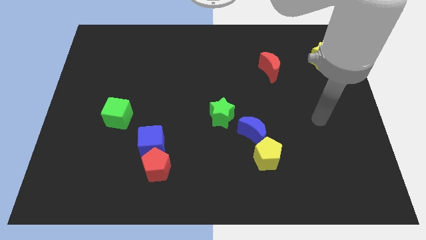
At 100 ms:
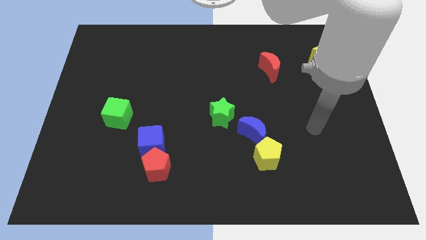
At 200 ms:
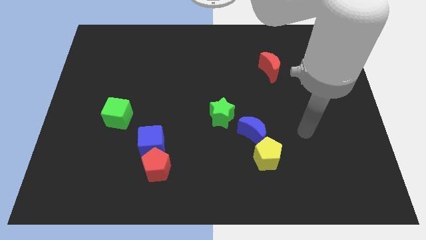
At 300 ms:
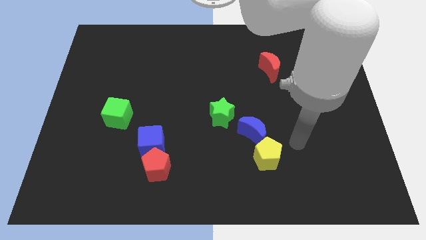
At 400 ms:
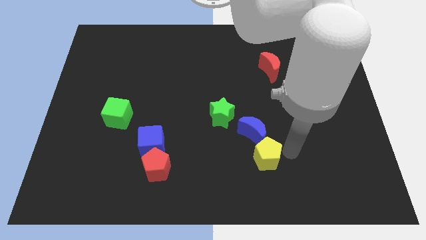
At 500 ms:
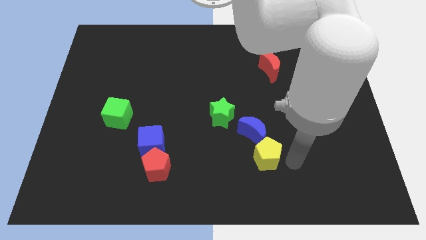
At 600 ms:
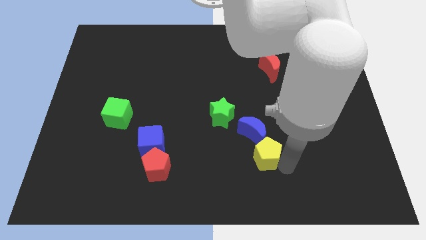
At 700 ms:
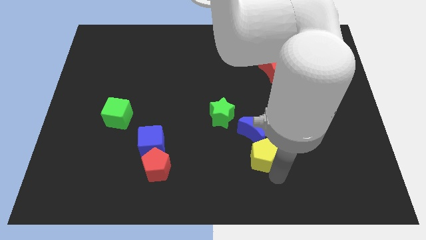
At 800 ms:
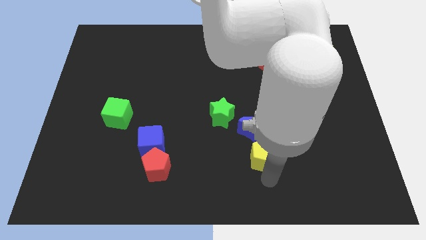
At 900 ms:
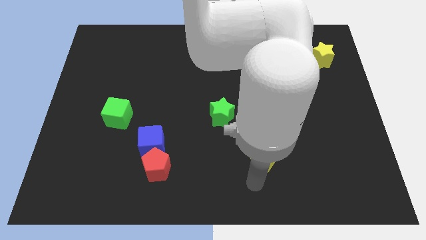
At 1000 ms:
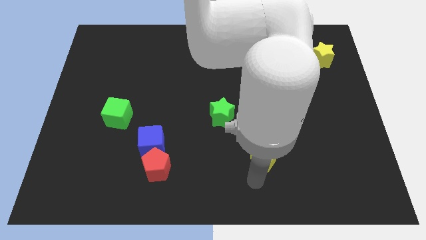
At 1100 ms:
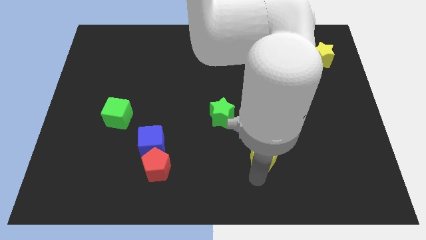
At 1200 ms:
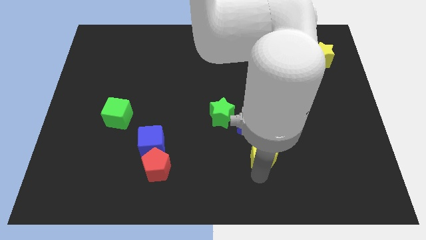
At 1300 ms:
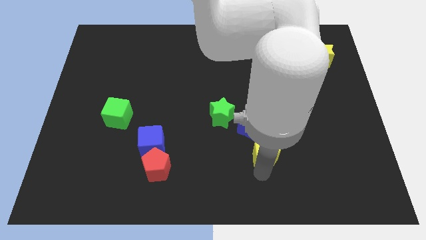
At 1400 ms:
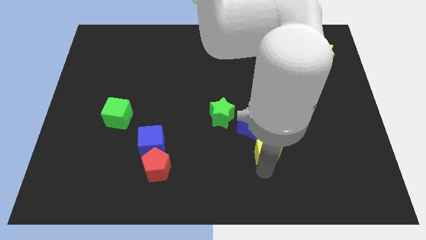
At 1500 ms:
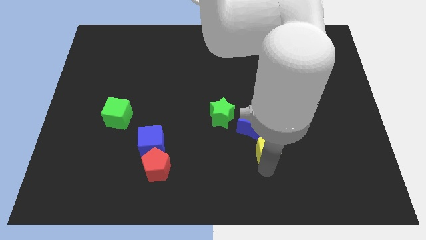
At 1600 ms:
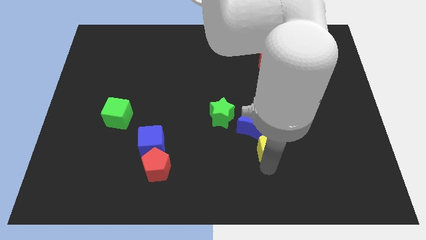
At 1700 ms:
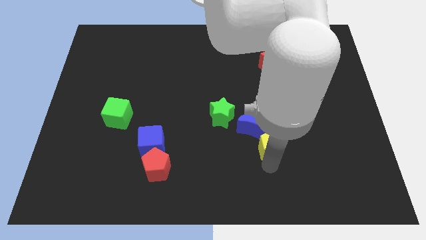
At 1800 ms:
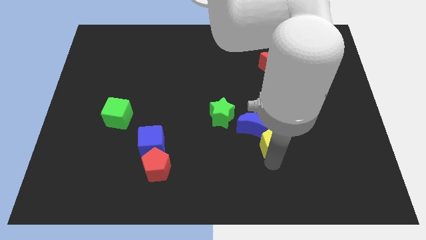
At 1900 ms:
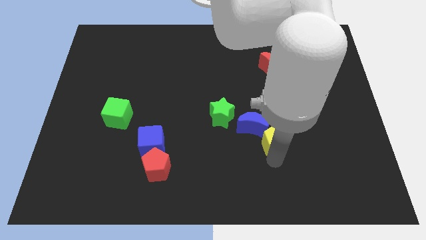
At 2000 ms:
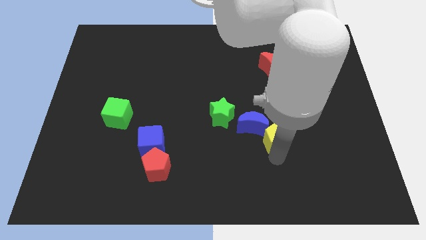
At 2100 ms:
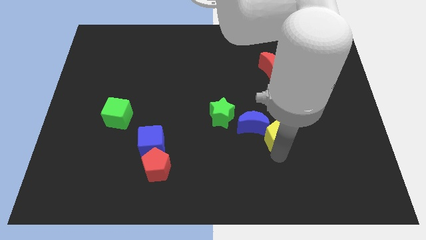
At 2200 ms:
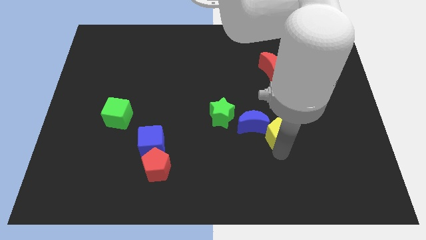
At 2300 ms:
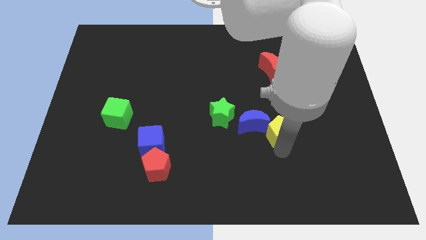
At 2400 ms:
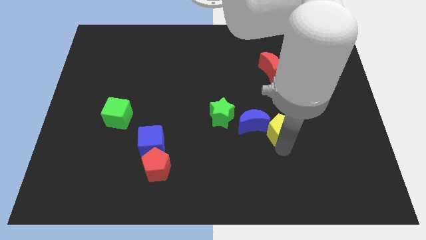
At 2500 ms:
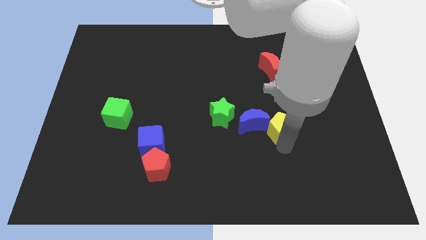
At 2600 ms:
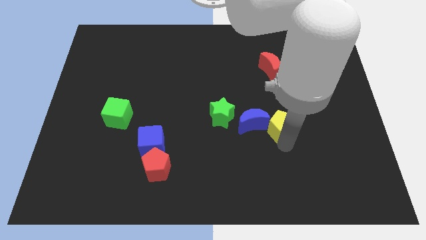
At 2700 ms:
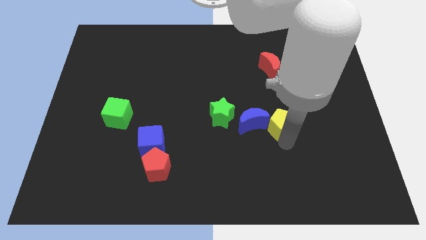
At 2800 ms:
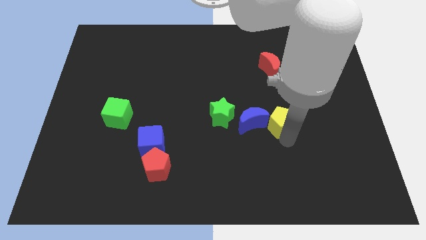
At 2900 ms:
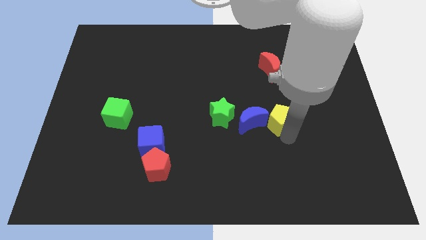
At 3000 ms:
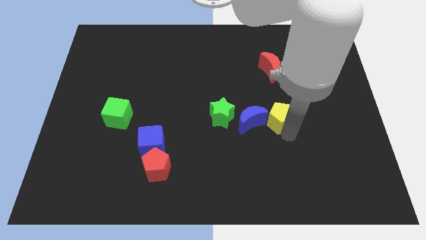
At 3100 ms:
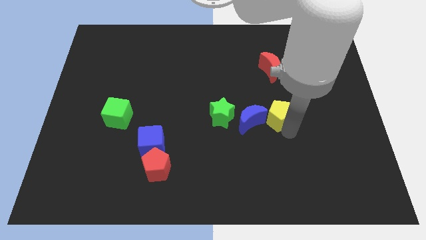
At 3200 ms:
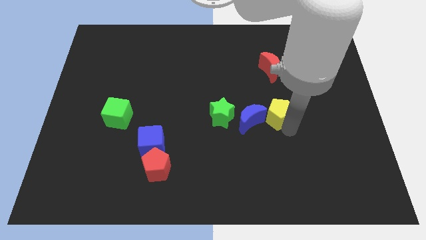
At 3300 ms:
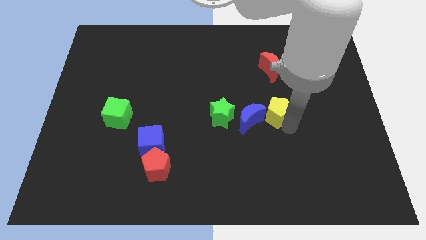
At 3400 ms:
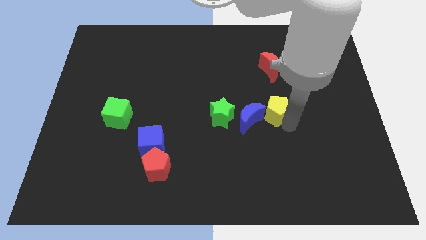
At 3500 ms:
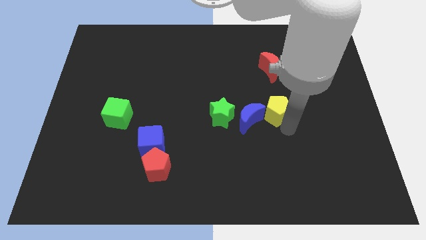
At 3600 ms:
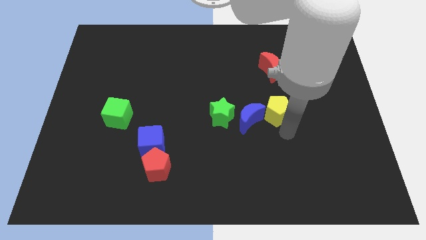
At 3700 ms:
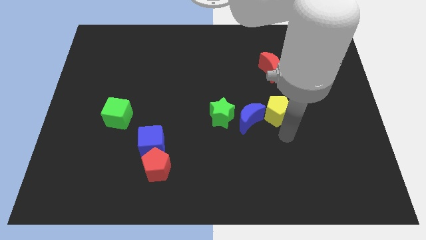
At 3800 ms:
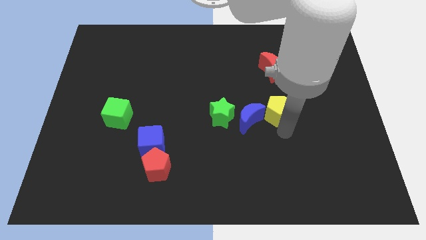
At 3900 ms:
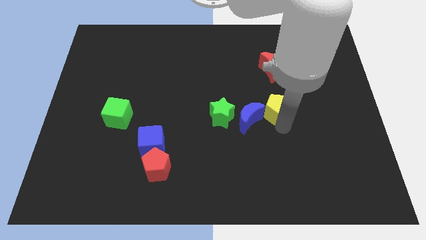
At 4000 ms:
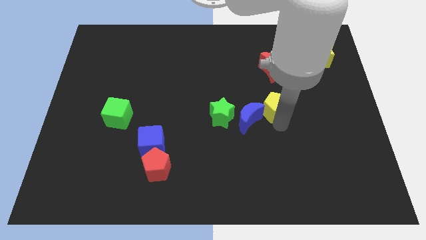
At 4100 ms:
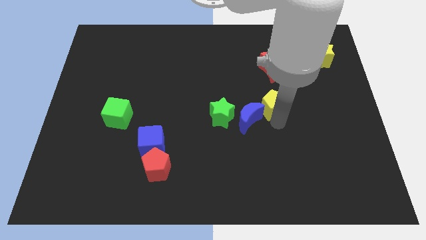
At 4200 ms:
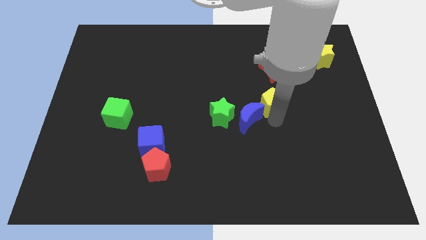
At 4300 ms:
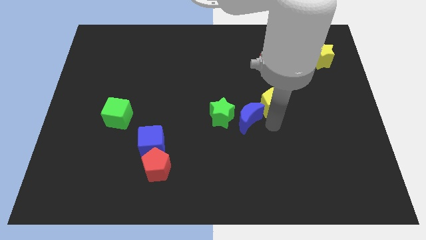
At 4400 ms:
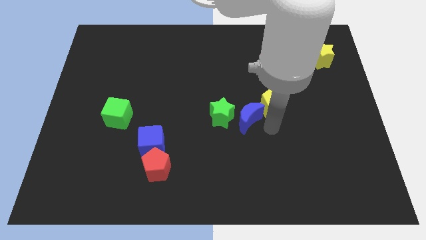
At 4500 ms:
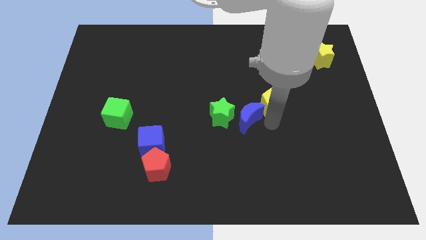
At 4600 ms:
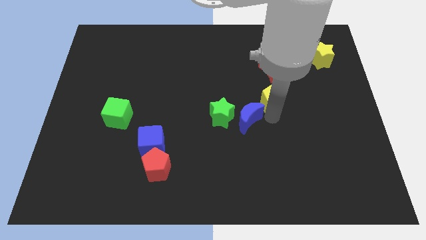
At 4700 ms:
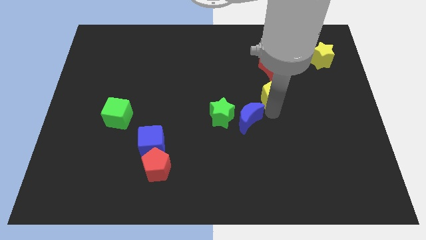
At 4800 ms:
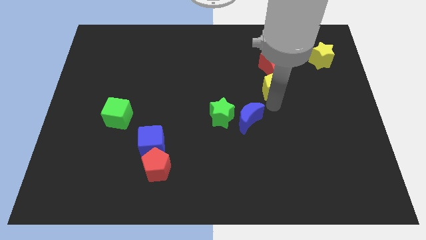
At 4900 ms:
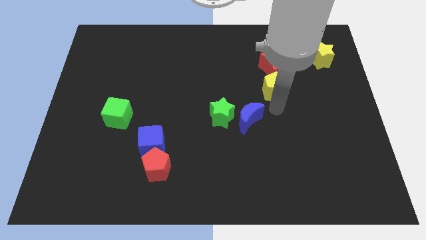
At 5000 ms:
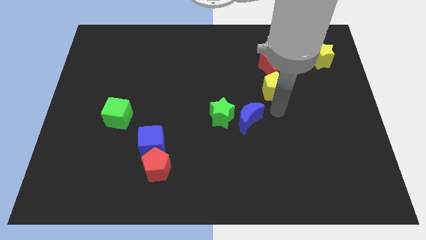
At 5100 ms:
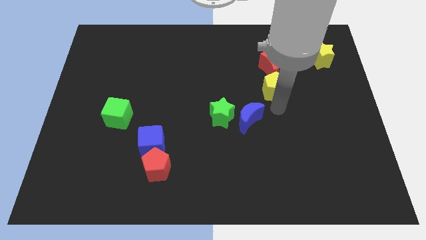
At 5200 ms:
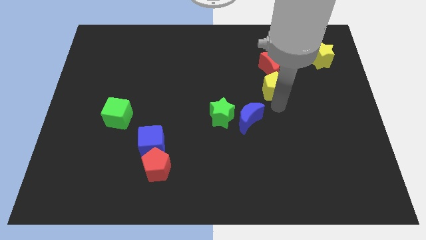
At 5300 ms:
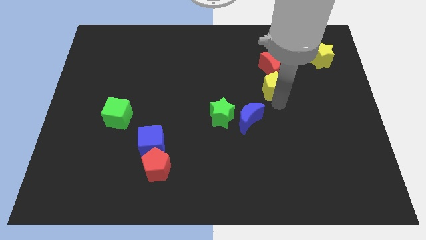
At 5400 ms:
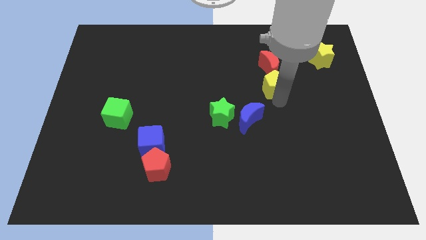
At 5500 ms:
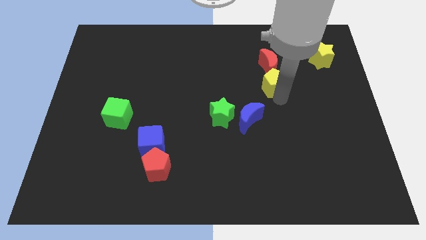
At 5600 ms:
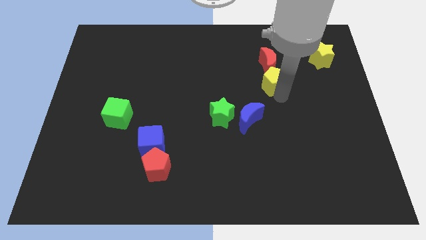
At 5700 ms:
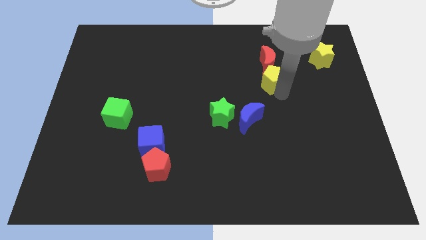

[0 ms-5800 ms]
move the yellow pentagon close to the red moon

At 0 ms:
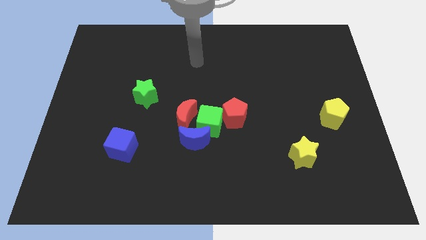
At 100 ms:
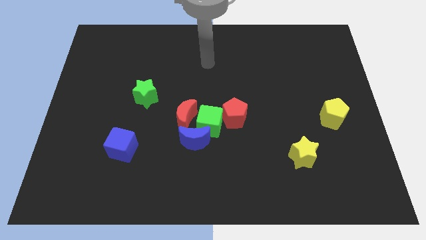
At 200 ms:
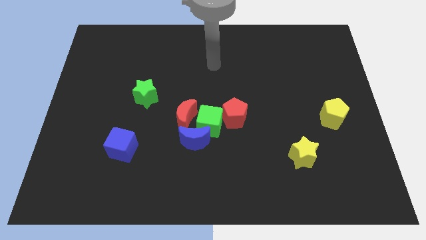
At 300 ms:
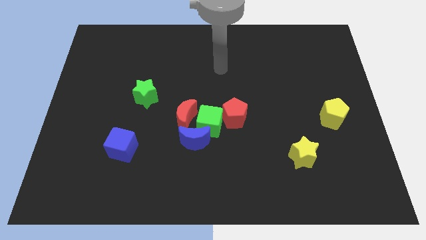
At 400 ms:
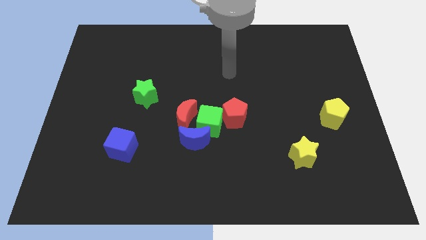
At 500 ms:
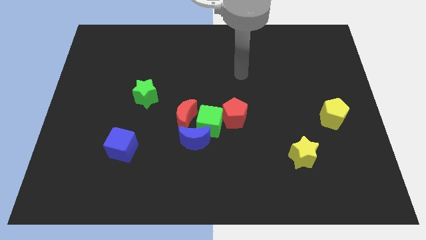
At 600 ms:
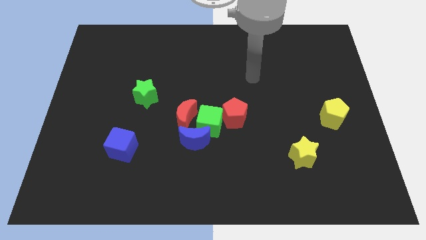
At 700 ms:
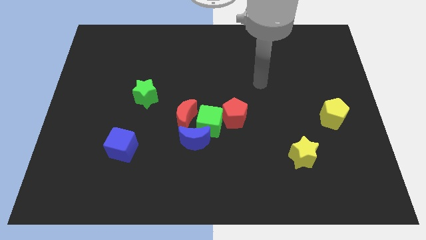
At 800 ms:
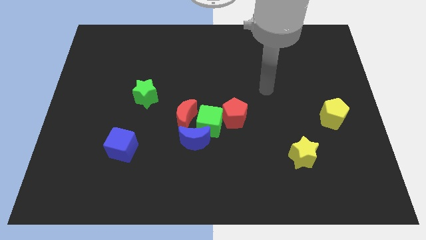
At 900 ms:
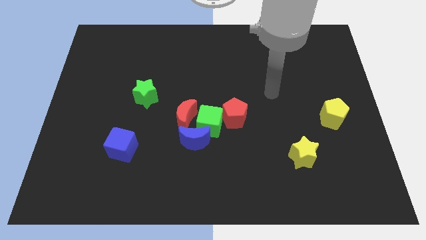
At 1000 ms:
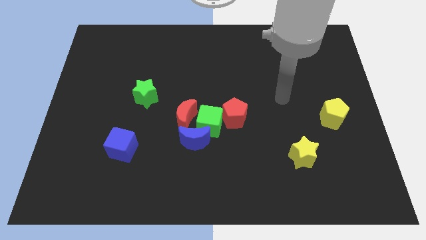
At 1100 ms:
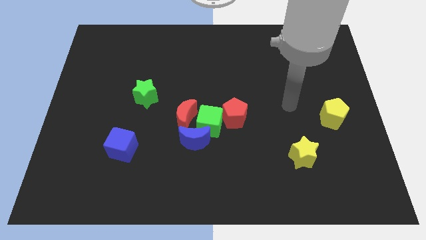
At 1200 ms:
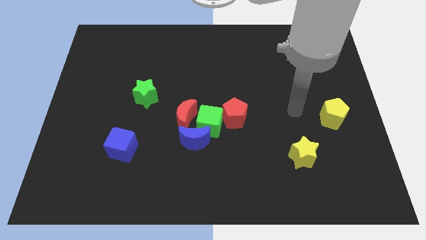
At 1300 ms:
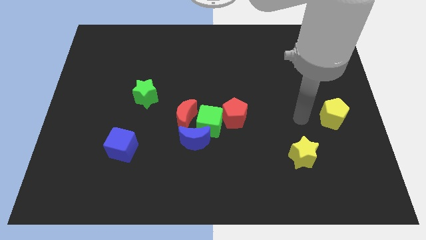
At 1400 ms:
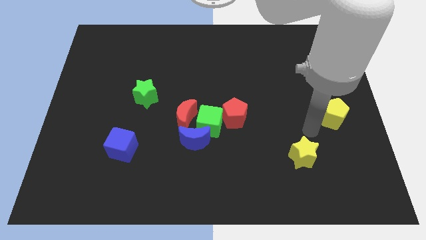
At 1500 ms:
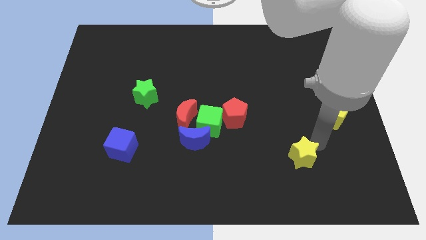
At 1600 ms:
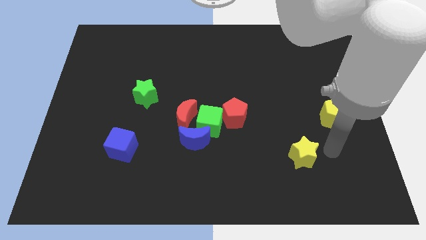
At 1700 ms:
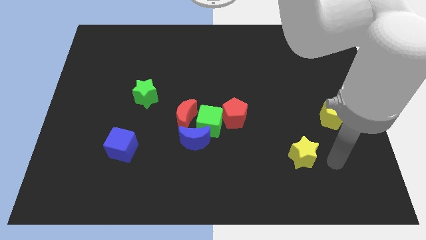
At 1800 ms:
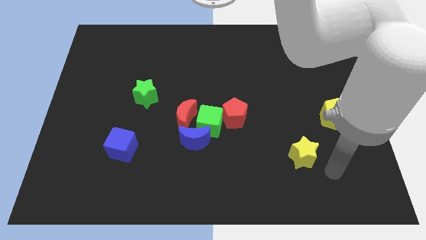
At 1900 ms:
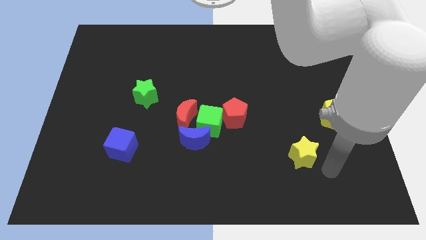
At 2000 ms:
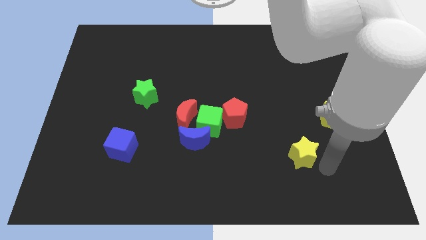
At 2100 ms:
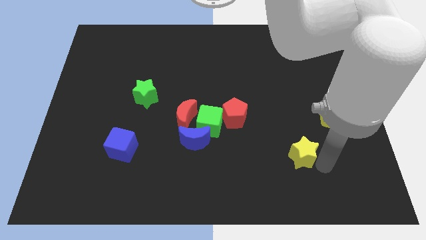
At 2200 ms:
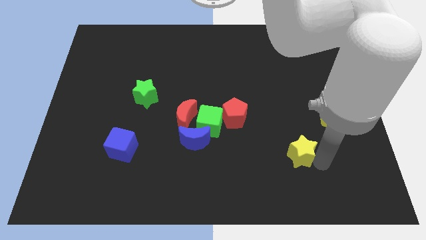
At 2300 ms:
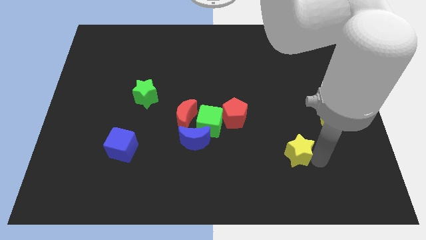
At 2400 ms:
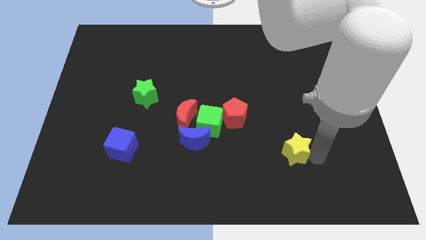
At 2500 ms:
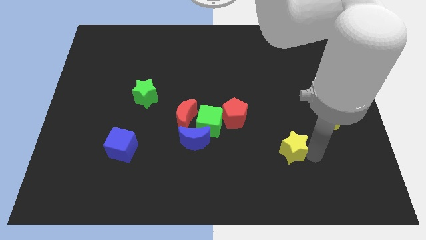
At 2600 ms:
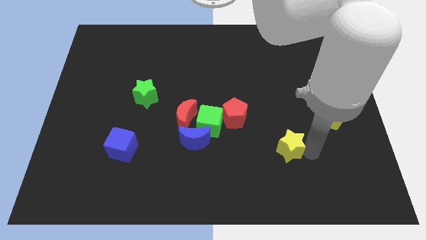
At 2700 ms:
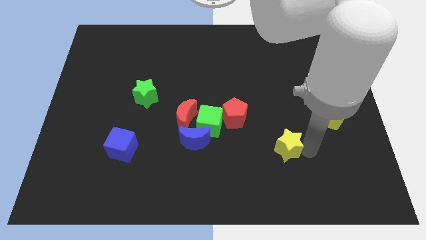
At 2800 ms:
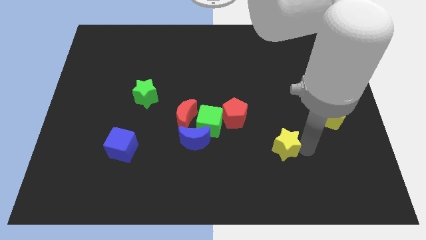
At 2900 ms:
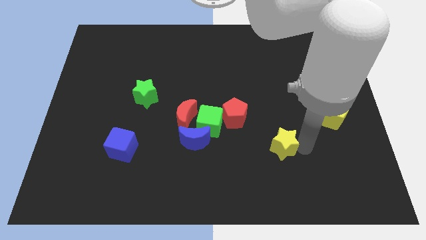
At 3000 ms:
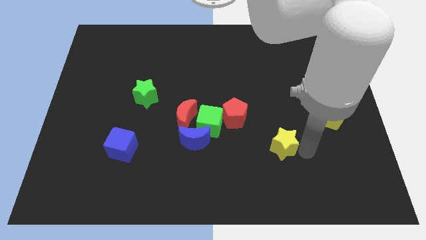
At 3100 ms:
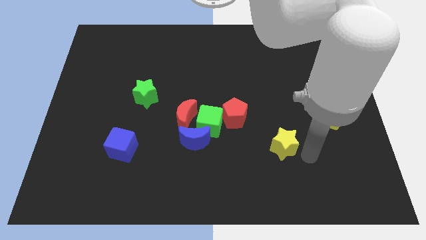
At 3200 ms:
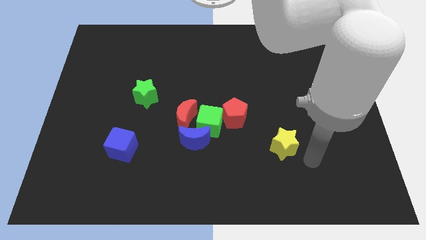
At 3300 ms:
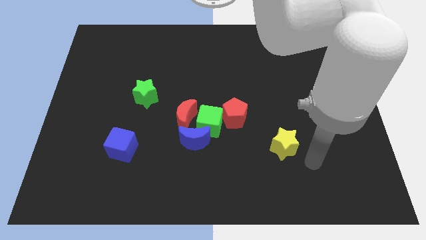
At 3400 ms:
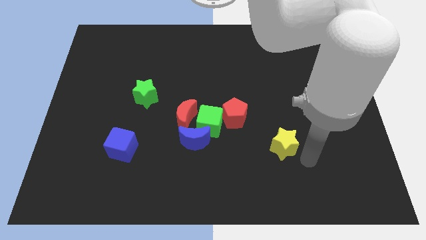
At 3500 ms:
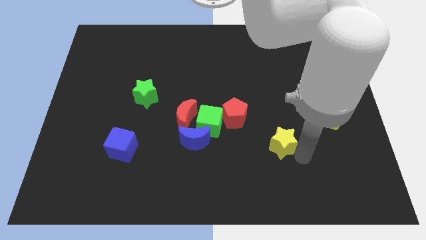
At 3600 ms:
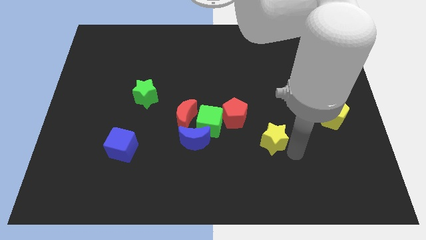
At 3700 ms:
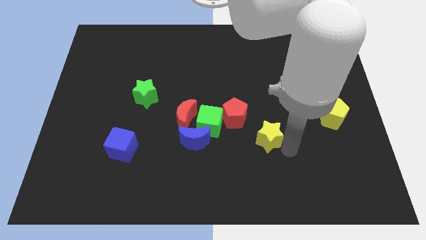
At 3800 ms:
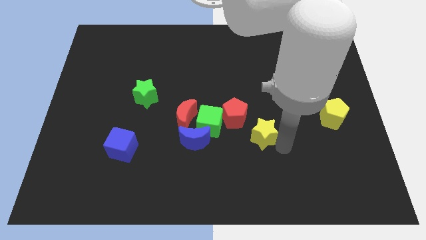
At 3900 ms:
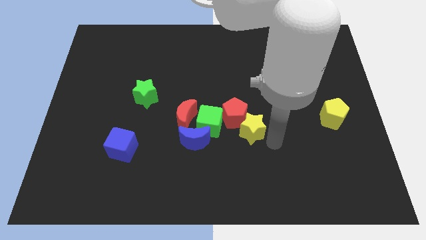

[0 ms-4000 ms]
put the yellow star close to the red pentagon
